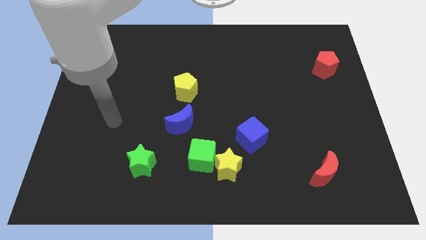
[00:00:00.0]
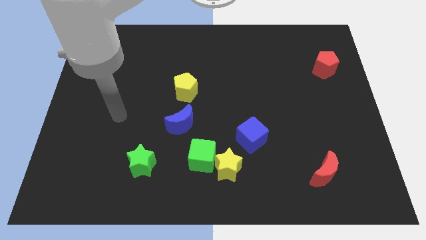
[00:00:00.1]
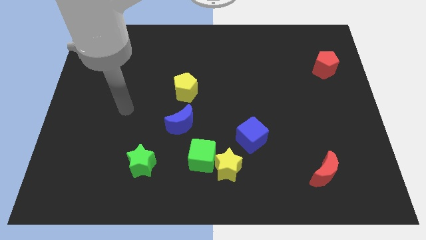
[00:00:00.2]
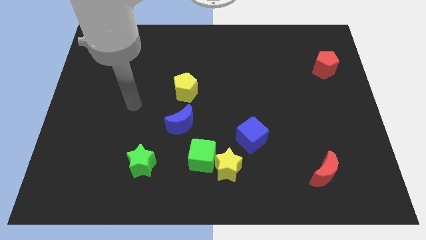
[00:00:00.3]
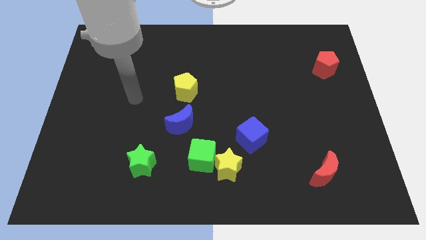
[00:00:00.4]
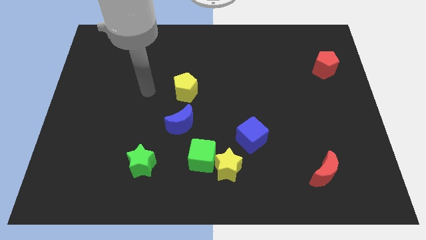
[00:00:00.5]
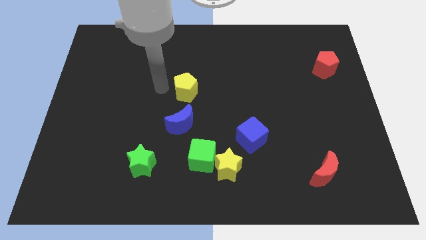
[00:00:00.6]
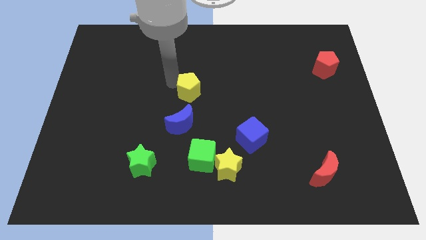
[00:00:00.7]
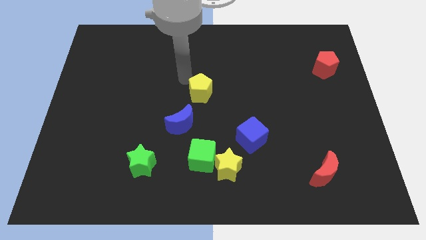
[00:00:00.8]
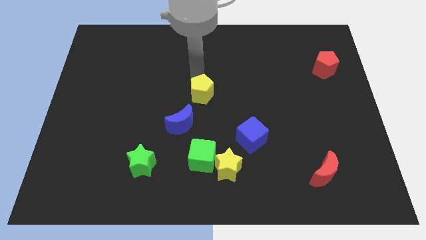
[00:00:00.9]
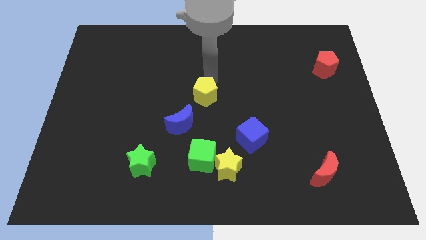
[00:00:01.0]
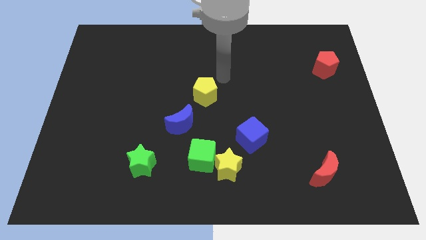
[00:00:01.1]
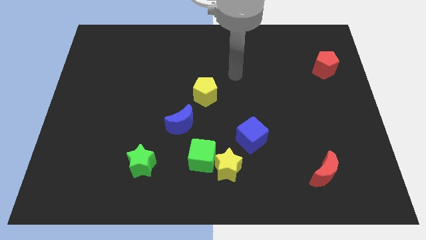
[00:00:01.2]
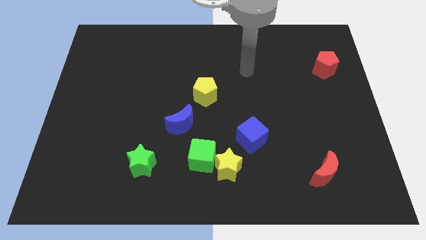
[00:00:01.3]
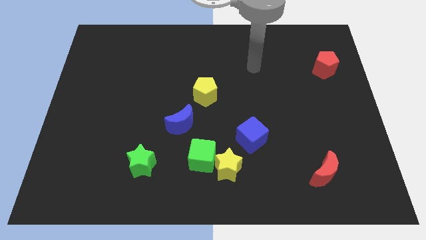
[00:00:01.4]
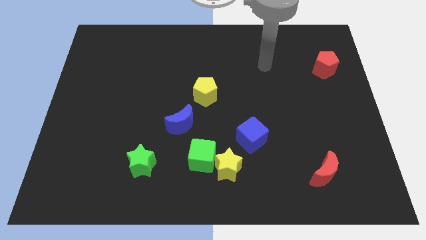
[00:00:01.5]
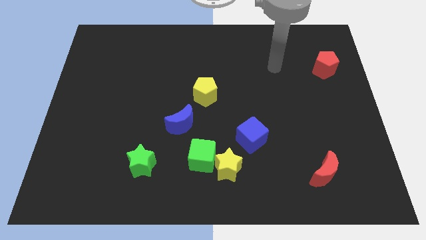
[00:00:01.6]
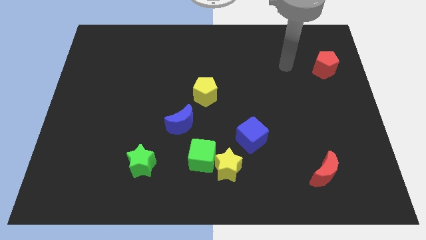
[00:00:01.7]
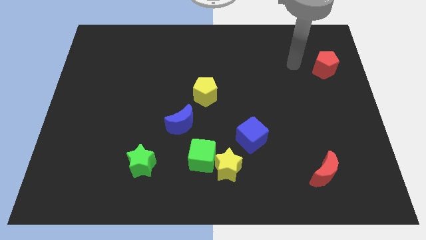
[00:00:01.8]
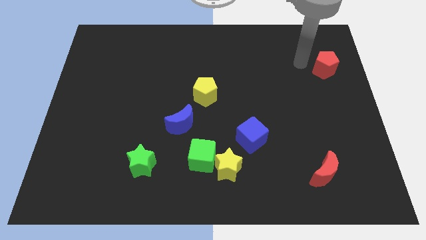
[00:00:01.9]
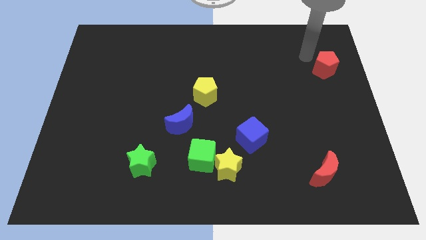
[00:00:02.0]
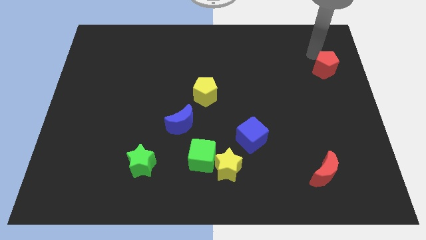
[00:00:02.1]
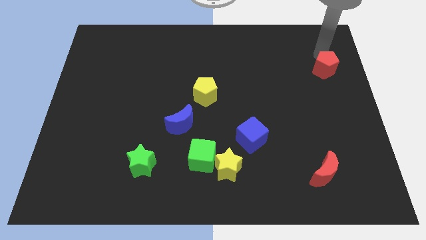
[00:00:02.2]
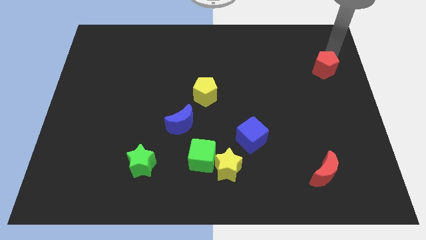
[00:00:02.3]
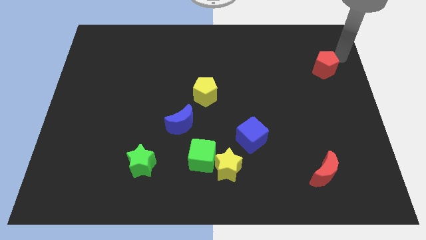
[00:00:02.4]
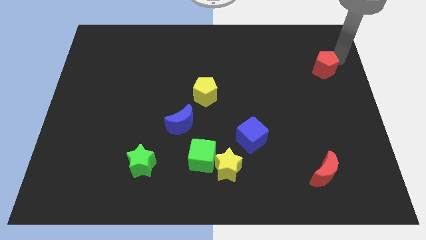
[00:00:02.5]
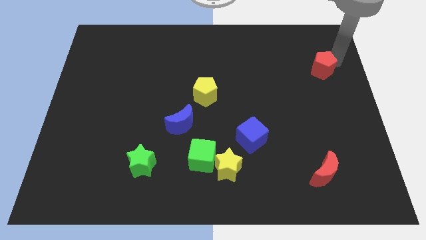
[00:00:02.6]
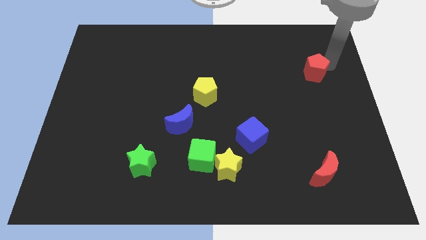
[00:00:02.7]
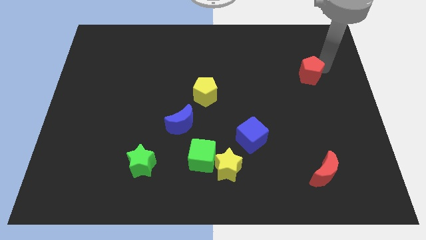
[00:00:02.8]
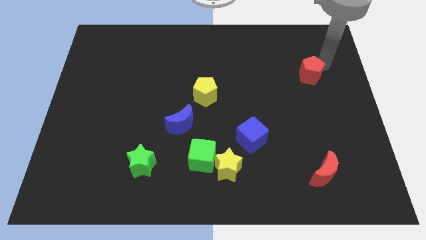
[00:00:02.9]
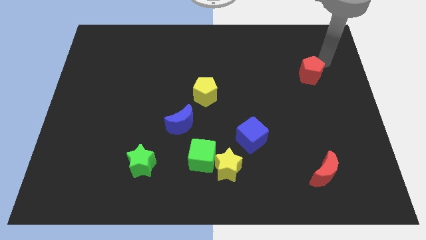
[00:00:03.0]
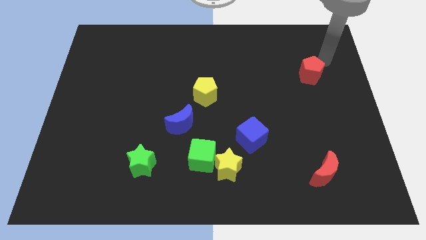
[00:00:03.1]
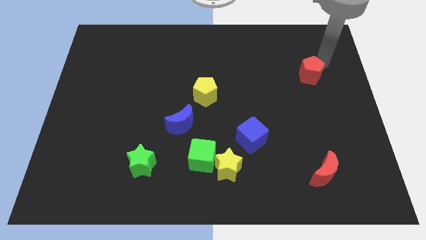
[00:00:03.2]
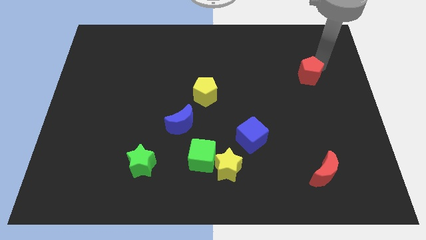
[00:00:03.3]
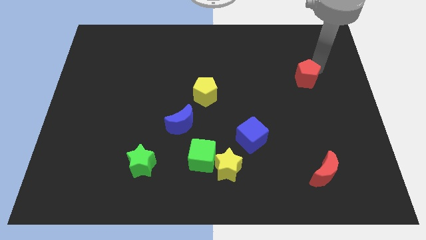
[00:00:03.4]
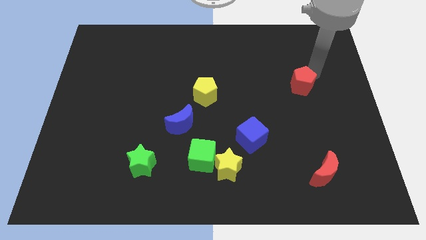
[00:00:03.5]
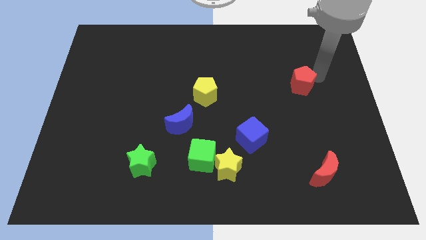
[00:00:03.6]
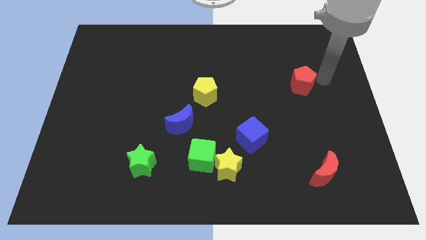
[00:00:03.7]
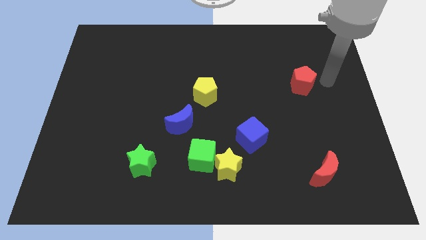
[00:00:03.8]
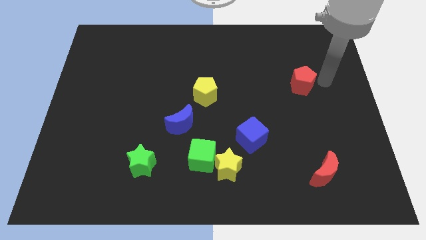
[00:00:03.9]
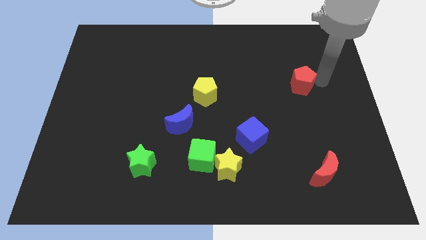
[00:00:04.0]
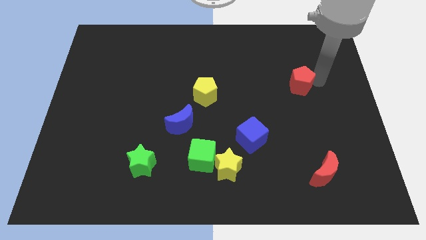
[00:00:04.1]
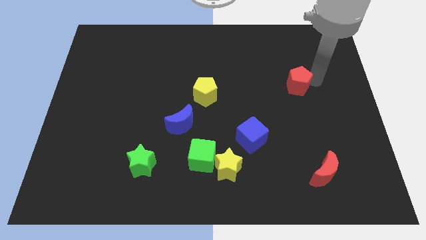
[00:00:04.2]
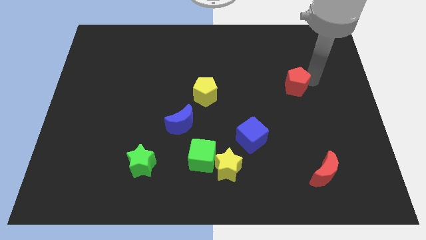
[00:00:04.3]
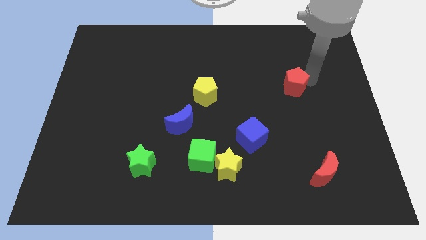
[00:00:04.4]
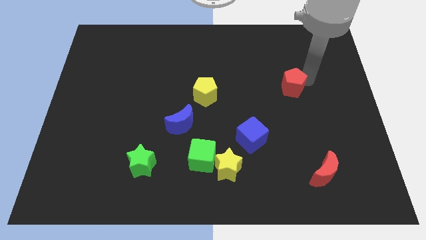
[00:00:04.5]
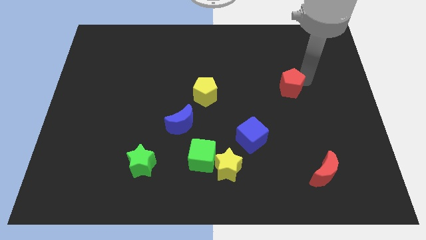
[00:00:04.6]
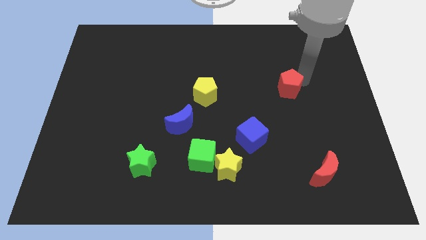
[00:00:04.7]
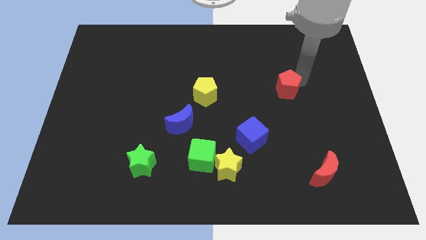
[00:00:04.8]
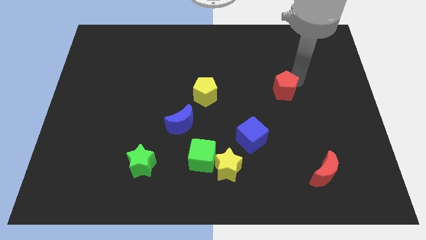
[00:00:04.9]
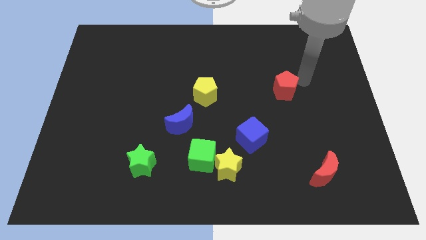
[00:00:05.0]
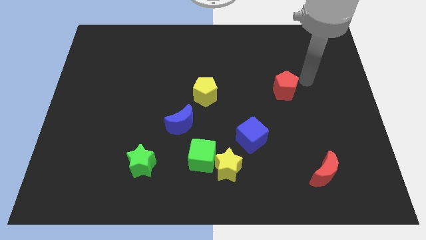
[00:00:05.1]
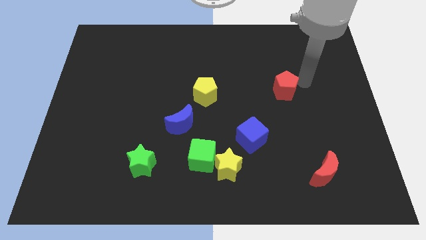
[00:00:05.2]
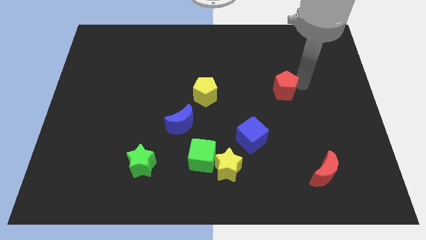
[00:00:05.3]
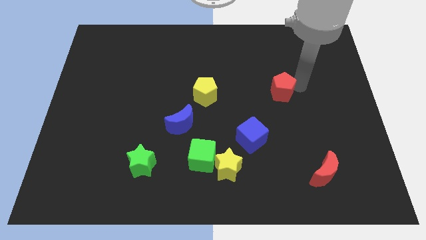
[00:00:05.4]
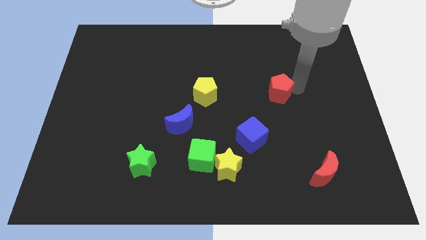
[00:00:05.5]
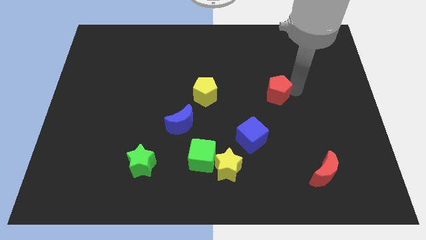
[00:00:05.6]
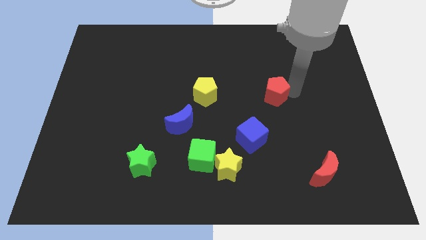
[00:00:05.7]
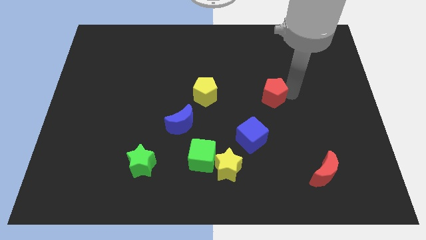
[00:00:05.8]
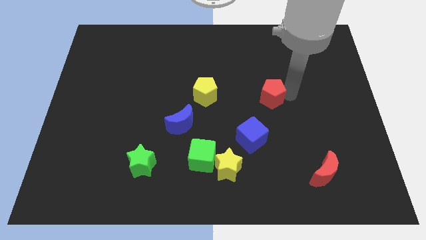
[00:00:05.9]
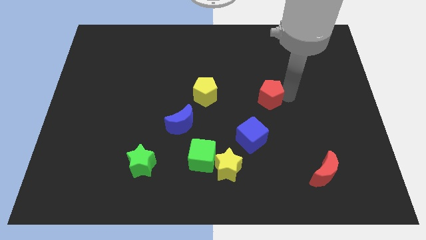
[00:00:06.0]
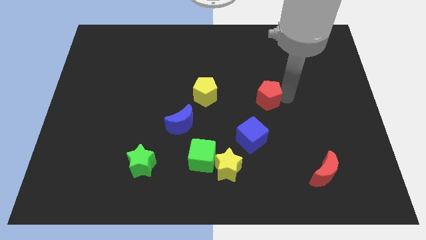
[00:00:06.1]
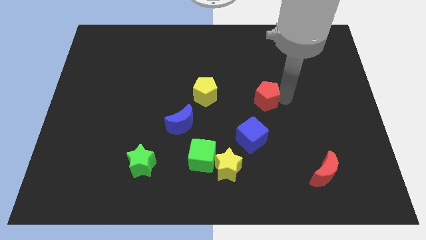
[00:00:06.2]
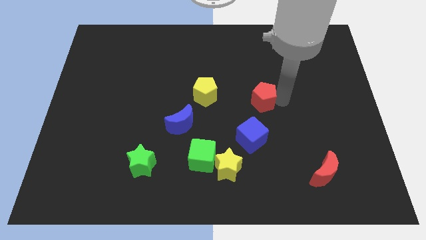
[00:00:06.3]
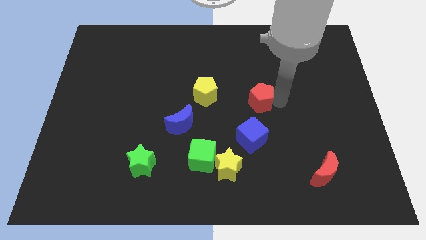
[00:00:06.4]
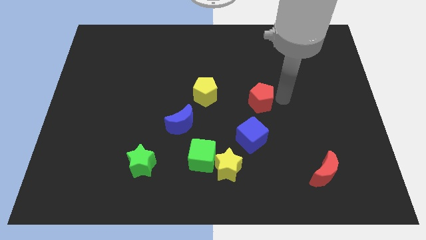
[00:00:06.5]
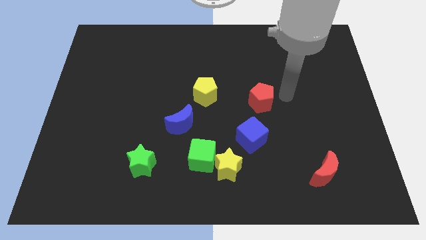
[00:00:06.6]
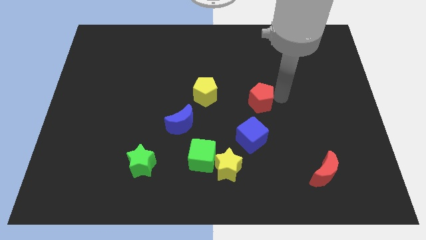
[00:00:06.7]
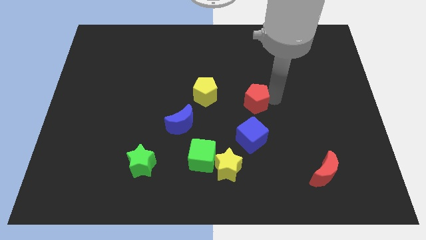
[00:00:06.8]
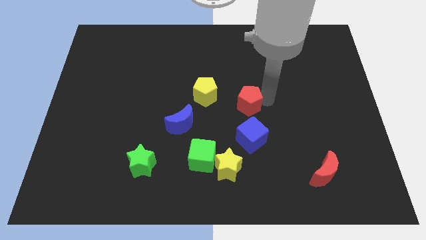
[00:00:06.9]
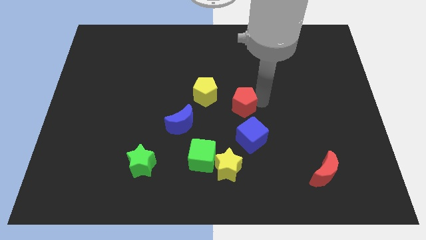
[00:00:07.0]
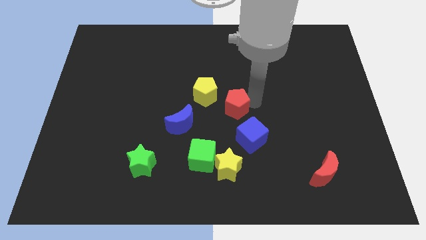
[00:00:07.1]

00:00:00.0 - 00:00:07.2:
move the red pentagon to the top left of the blue cube

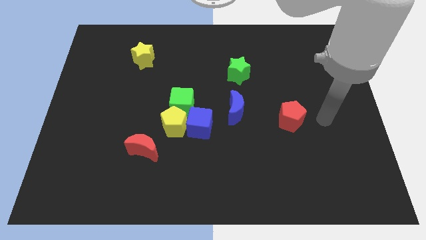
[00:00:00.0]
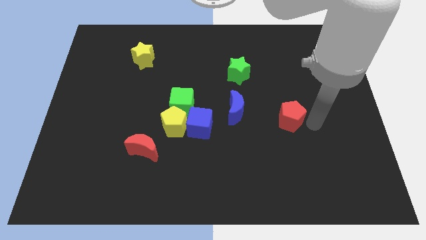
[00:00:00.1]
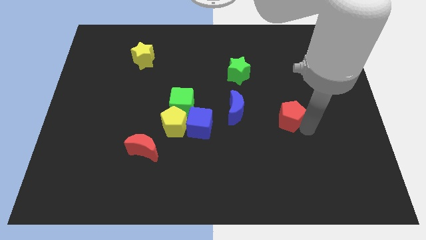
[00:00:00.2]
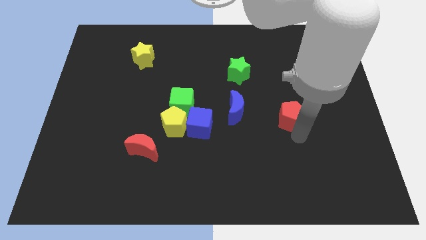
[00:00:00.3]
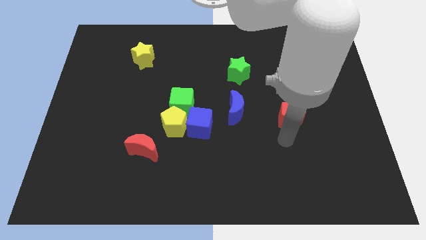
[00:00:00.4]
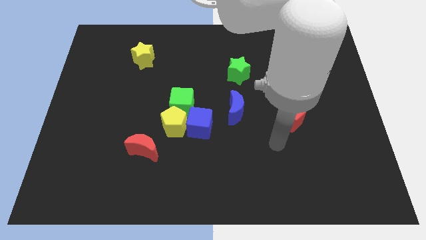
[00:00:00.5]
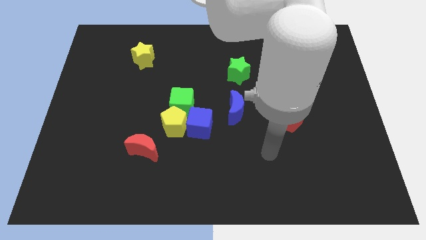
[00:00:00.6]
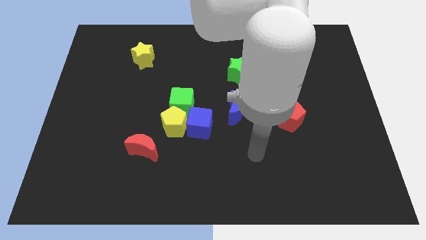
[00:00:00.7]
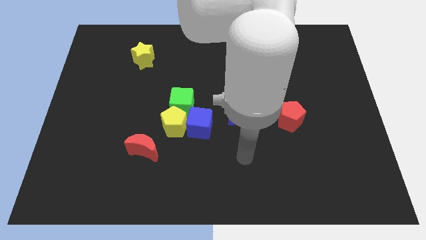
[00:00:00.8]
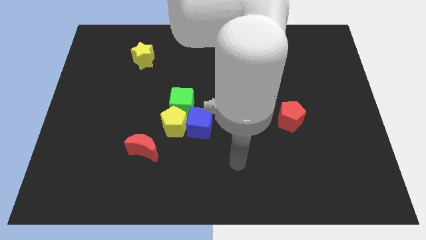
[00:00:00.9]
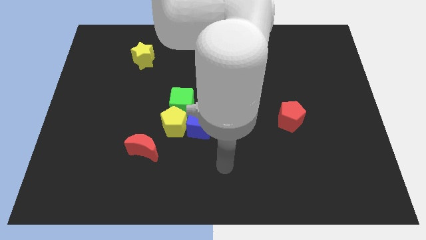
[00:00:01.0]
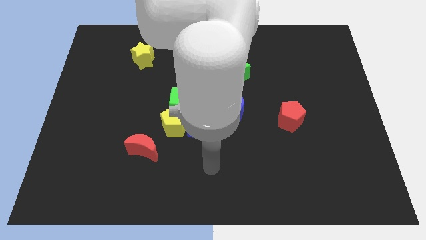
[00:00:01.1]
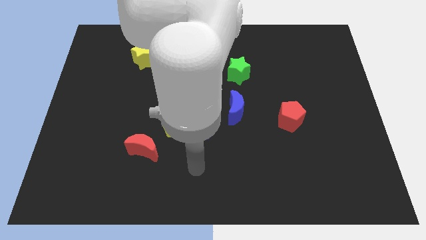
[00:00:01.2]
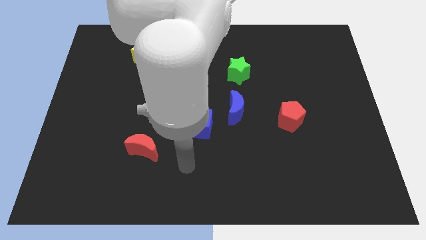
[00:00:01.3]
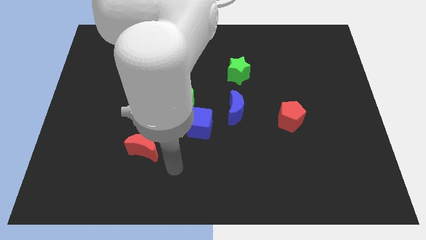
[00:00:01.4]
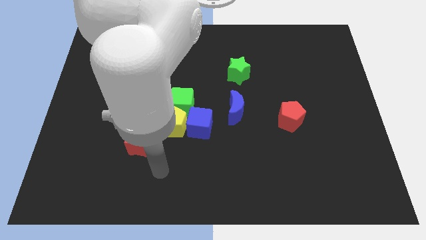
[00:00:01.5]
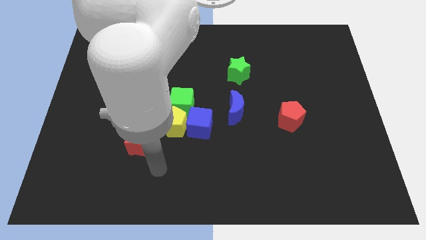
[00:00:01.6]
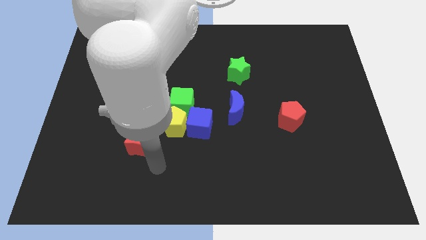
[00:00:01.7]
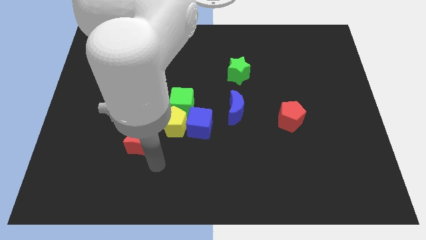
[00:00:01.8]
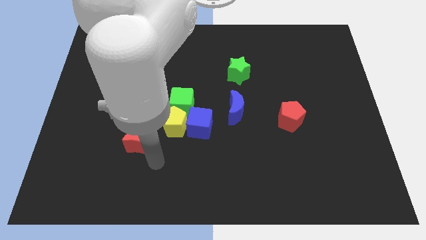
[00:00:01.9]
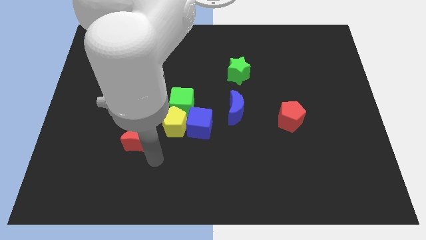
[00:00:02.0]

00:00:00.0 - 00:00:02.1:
slide the red moon to the left side of the yellow pentagon
